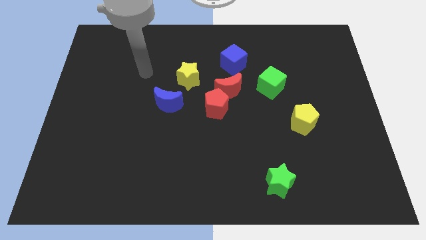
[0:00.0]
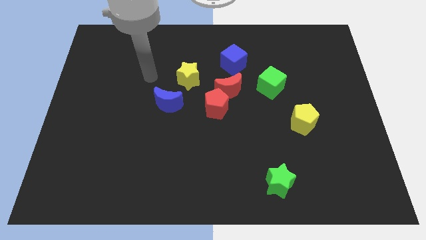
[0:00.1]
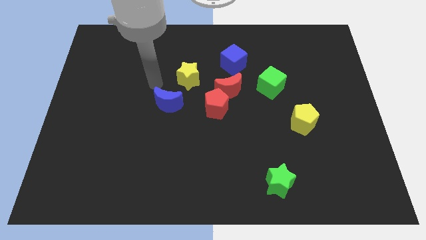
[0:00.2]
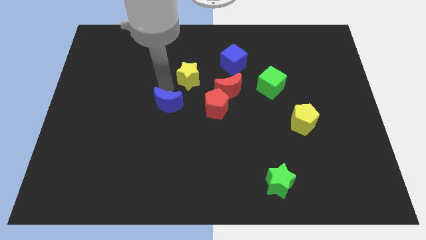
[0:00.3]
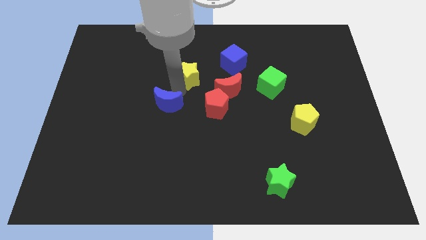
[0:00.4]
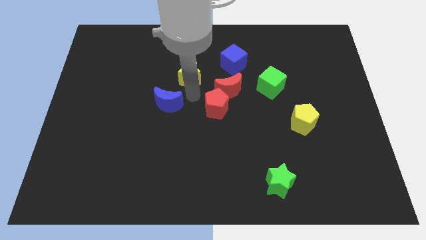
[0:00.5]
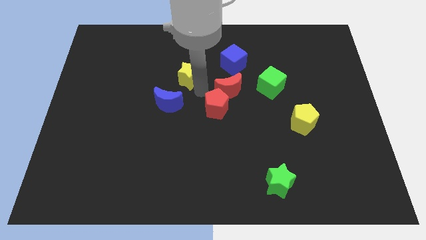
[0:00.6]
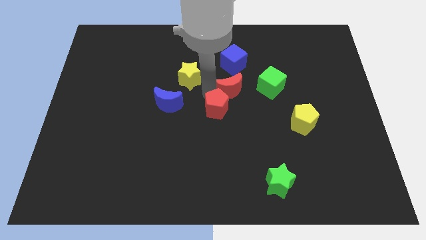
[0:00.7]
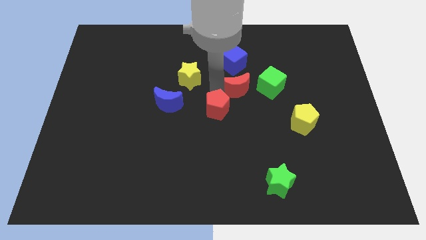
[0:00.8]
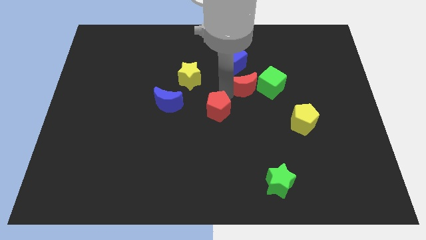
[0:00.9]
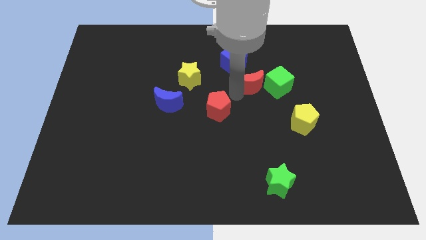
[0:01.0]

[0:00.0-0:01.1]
pull the red pentagon apart from the red moon

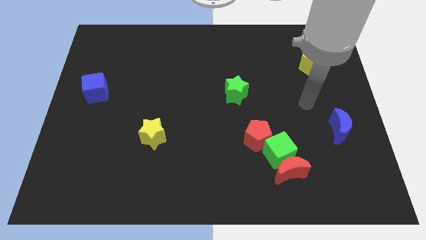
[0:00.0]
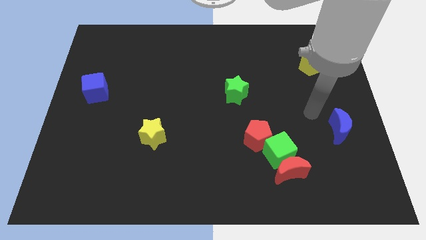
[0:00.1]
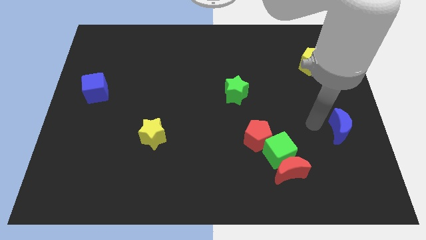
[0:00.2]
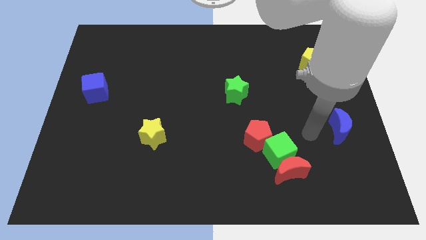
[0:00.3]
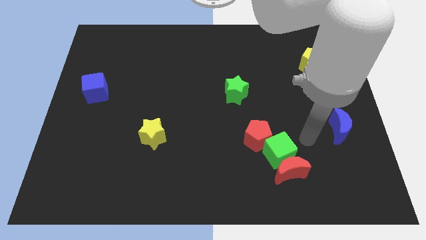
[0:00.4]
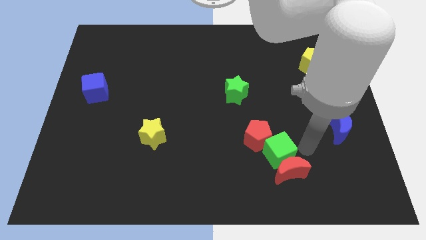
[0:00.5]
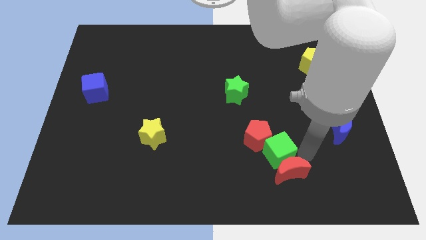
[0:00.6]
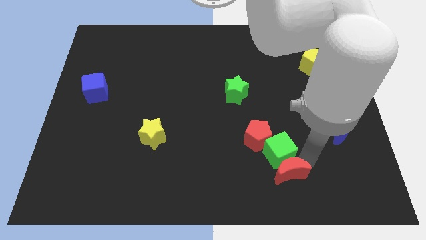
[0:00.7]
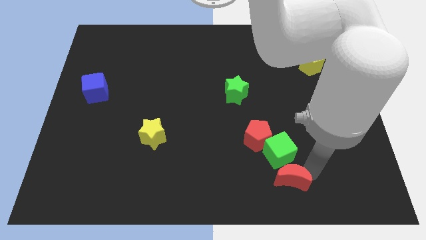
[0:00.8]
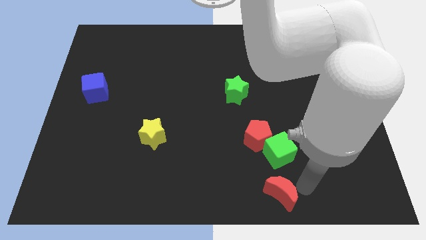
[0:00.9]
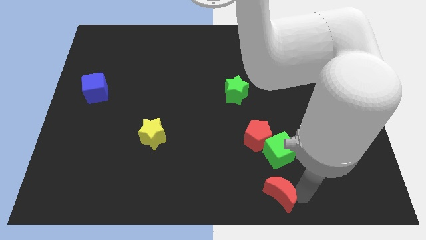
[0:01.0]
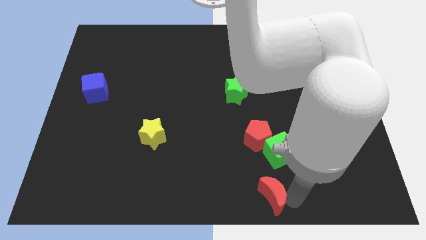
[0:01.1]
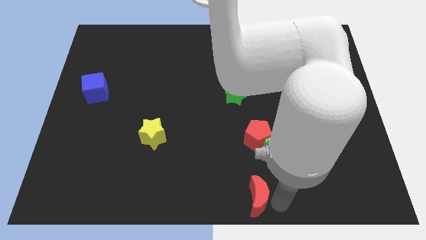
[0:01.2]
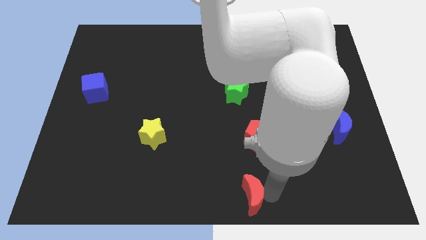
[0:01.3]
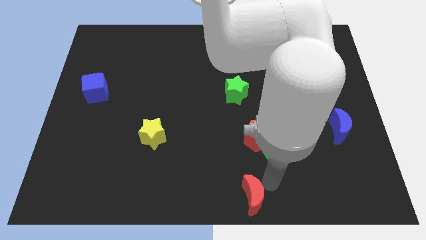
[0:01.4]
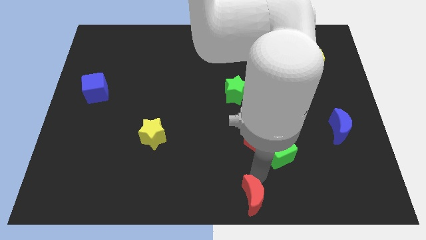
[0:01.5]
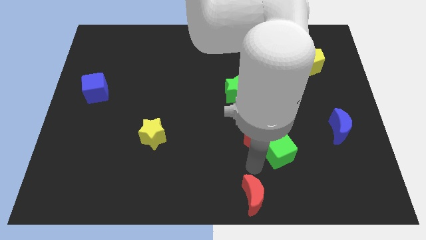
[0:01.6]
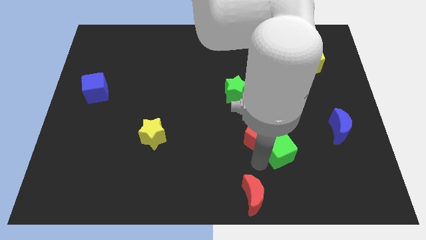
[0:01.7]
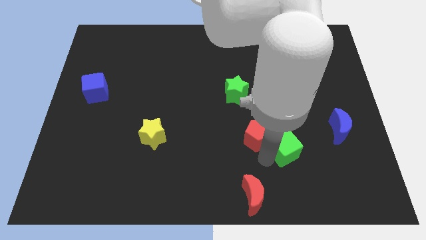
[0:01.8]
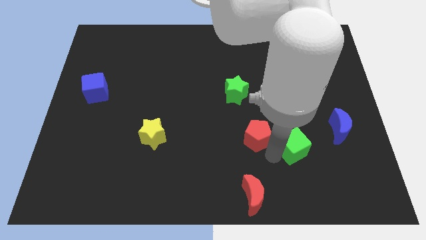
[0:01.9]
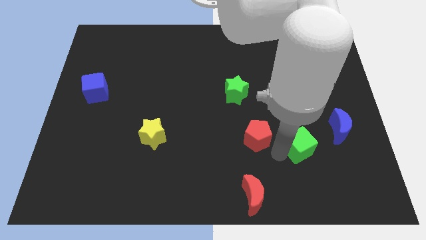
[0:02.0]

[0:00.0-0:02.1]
separate the green cube from the red moon and red pentagon

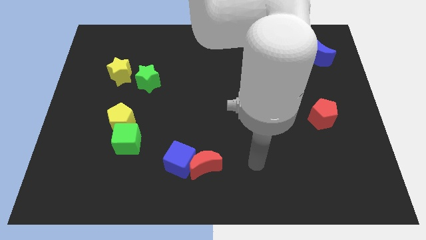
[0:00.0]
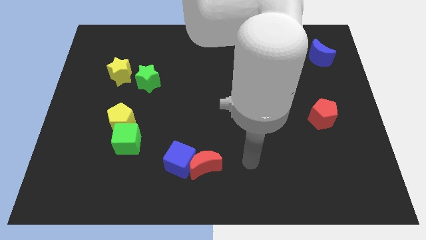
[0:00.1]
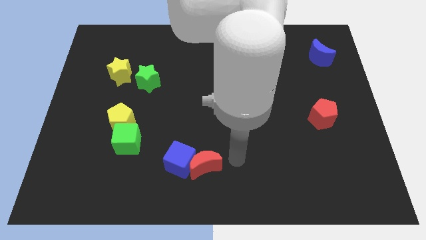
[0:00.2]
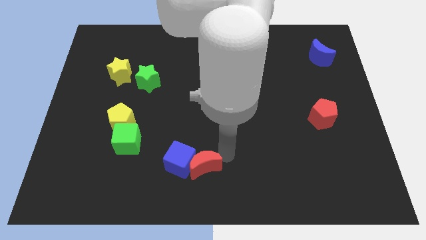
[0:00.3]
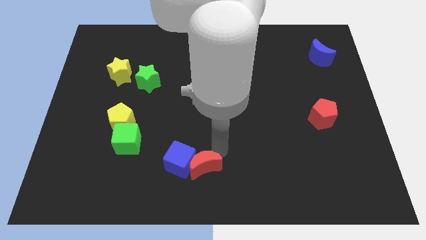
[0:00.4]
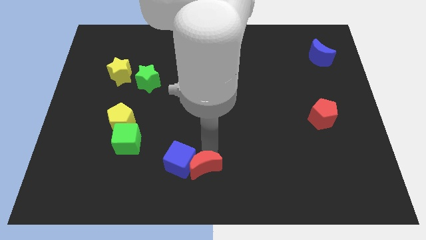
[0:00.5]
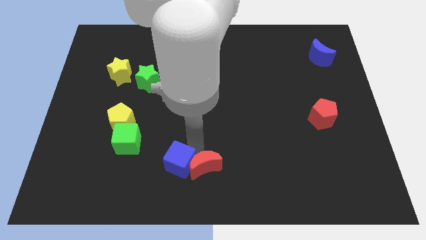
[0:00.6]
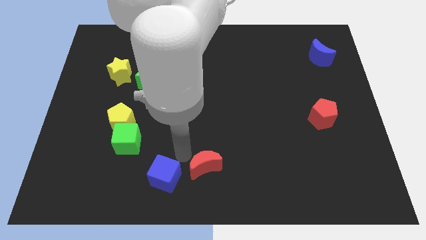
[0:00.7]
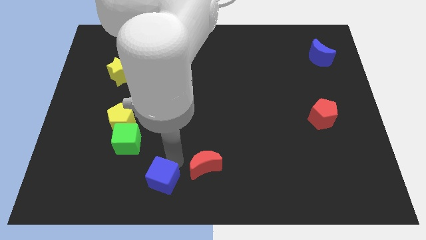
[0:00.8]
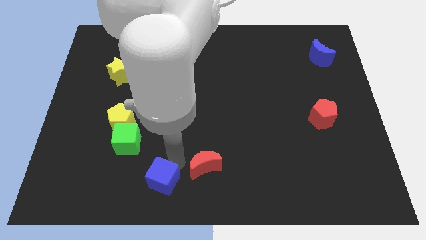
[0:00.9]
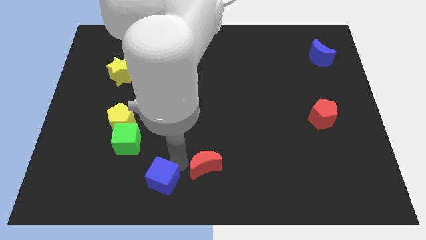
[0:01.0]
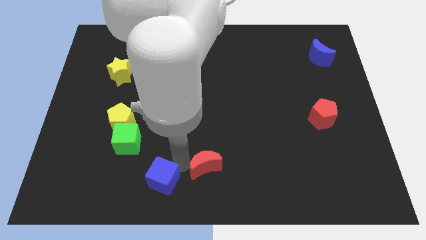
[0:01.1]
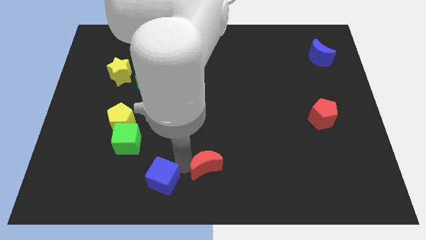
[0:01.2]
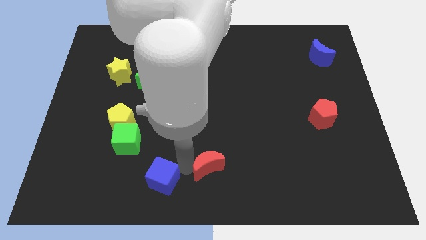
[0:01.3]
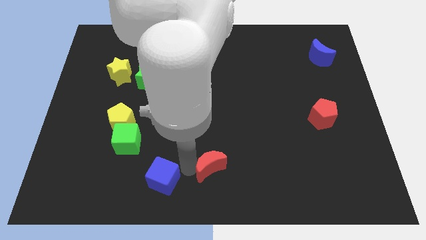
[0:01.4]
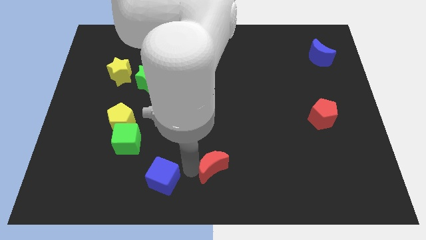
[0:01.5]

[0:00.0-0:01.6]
pull the red moon apart from the blue cube

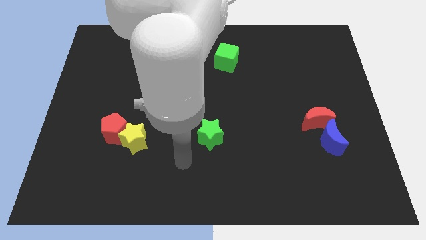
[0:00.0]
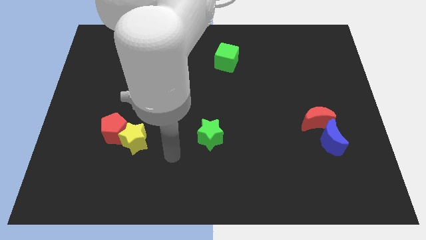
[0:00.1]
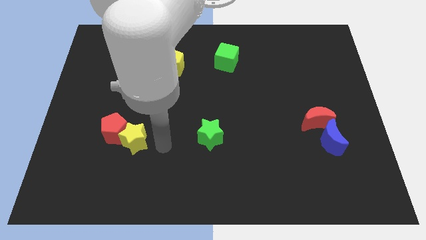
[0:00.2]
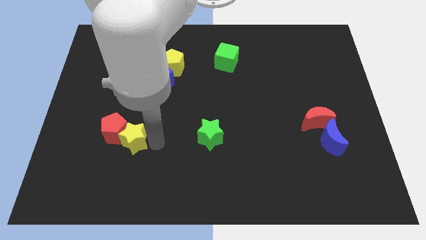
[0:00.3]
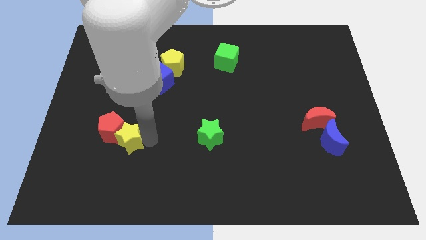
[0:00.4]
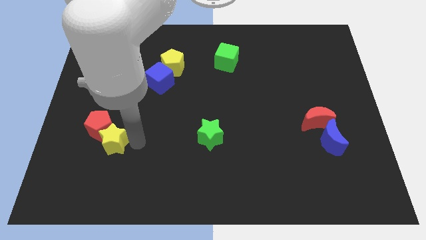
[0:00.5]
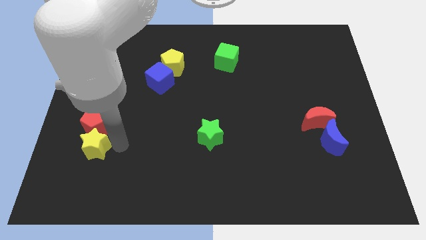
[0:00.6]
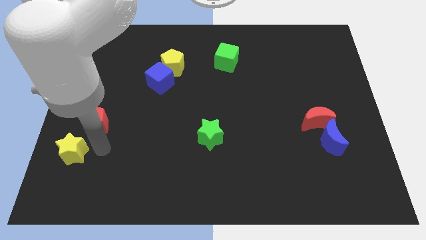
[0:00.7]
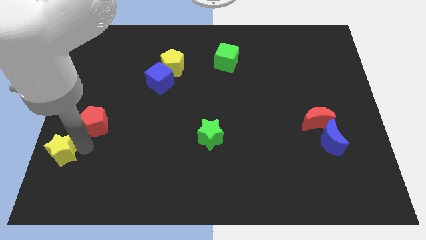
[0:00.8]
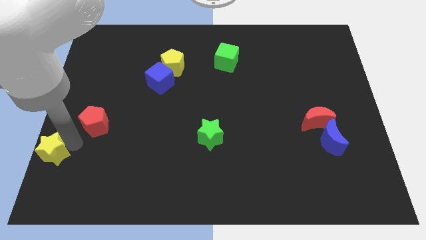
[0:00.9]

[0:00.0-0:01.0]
separate the red pentagon from the yellow star

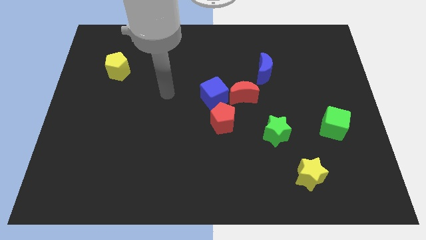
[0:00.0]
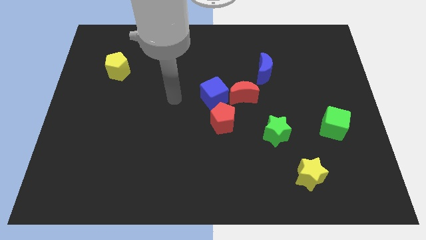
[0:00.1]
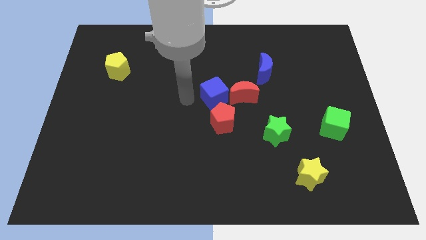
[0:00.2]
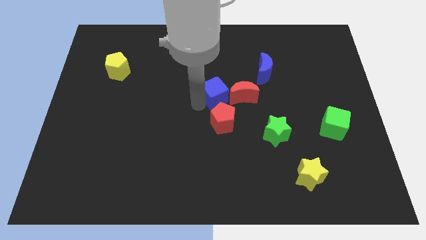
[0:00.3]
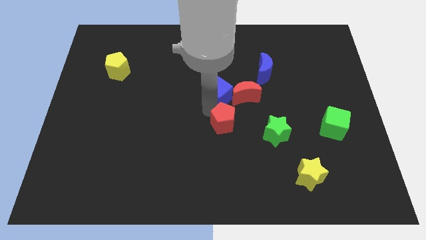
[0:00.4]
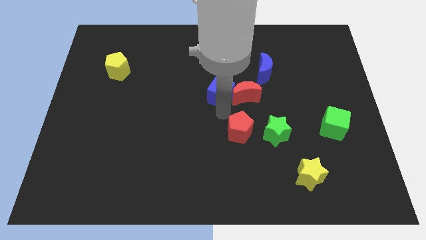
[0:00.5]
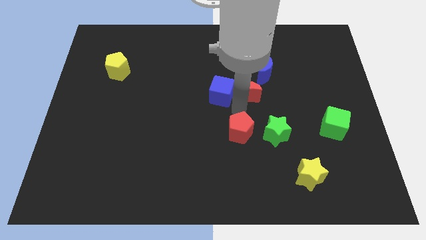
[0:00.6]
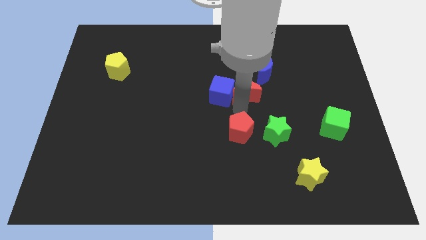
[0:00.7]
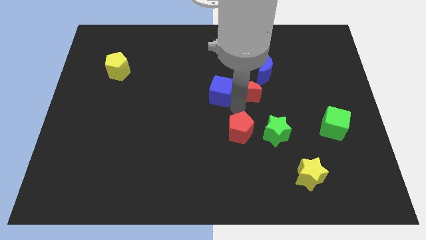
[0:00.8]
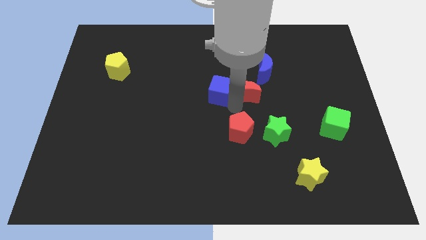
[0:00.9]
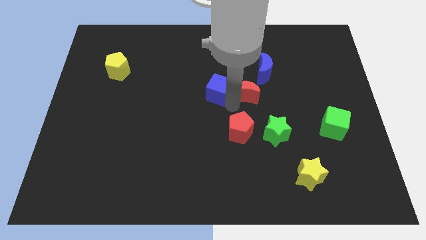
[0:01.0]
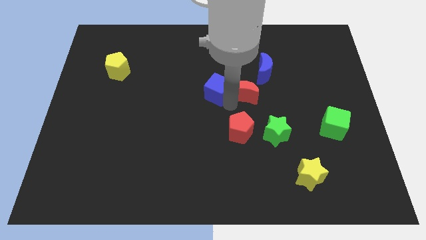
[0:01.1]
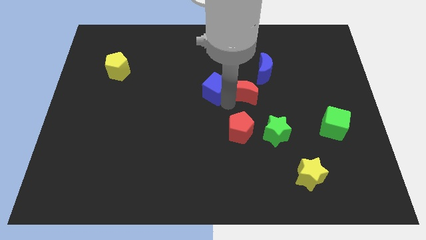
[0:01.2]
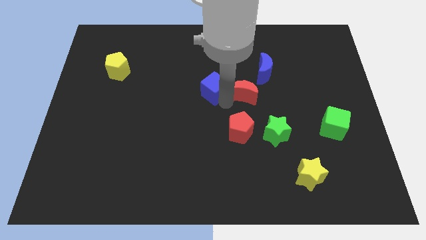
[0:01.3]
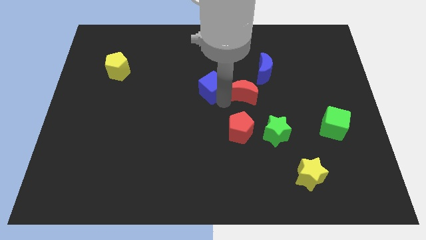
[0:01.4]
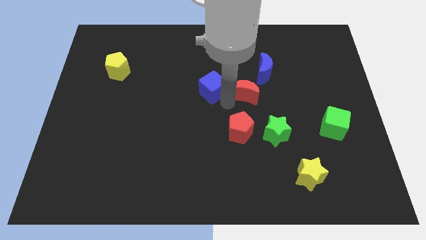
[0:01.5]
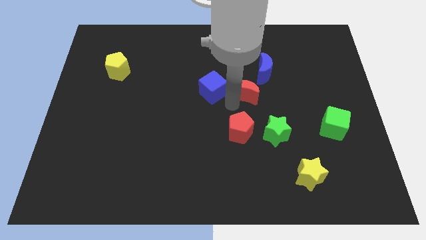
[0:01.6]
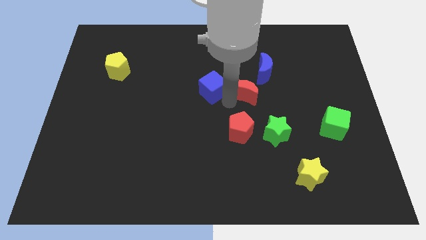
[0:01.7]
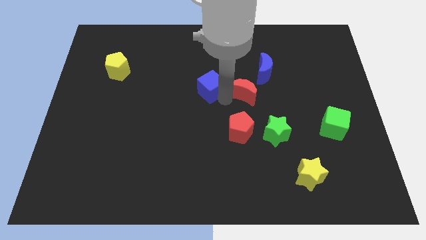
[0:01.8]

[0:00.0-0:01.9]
move the blue cube away from the red moon and red pentagon

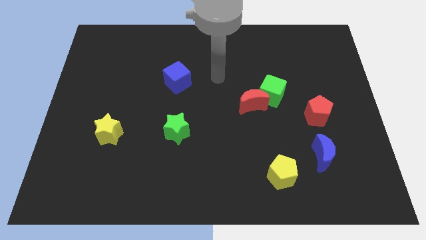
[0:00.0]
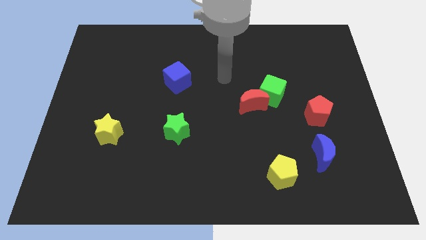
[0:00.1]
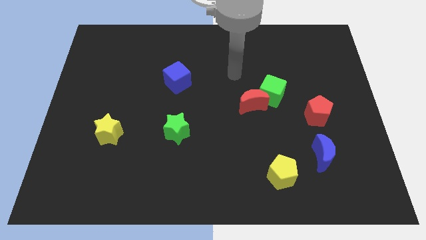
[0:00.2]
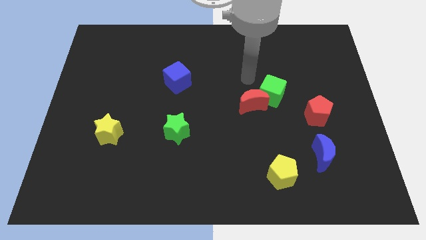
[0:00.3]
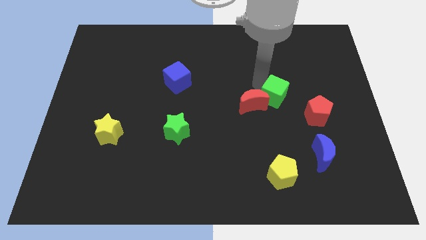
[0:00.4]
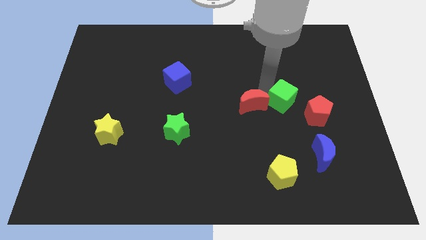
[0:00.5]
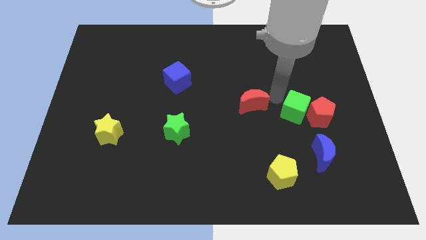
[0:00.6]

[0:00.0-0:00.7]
move the red moon away from the green cube

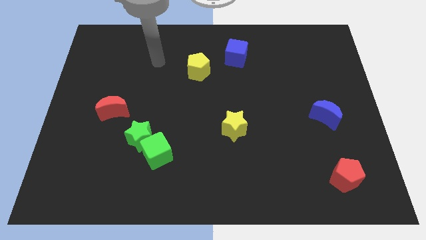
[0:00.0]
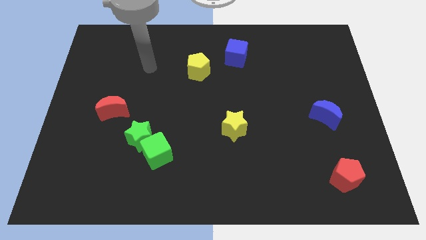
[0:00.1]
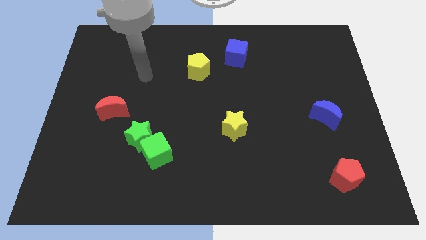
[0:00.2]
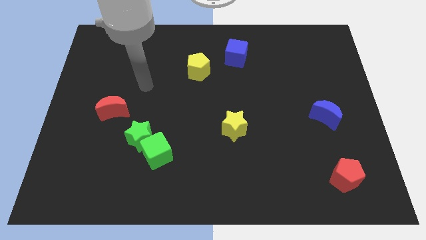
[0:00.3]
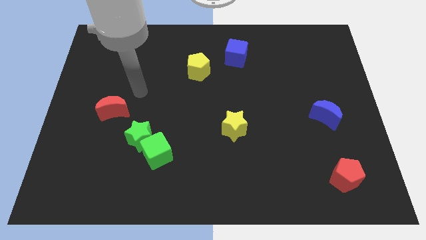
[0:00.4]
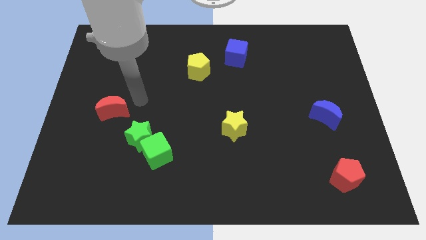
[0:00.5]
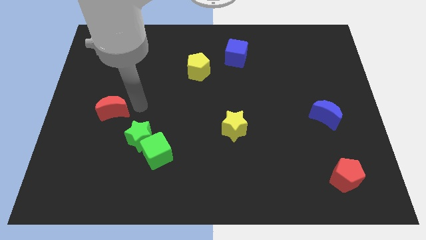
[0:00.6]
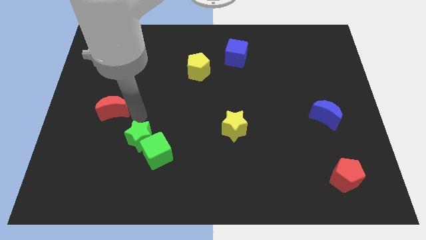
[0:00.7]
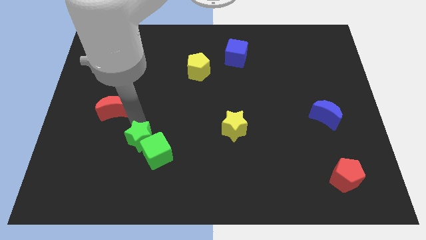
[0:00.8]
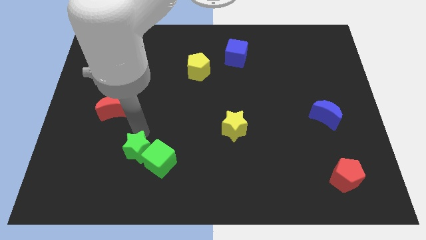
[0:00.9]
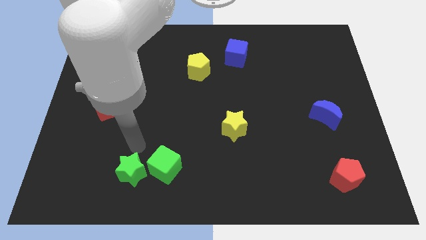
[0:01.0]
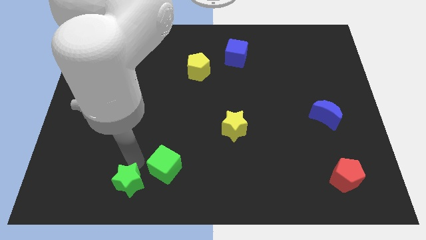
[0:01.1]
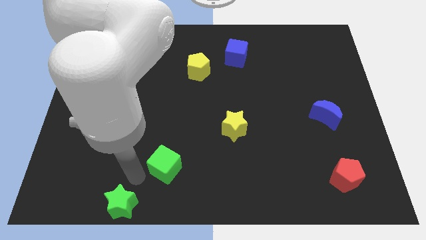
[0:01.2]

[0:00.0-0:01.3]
separate the green cube from the green star
